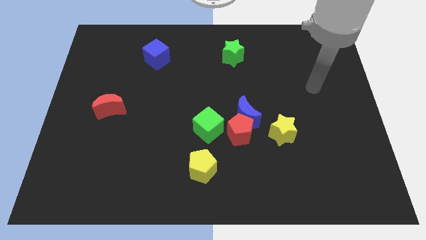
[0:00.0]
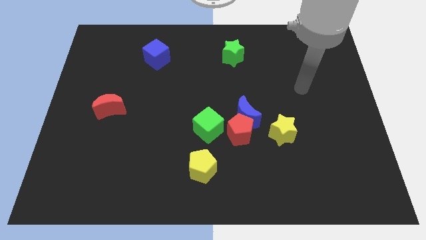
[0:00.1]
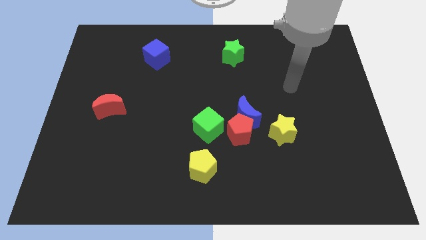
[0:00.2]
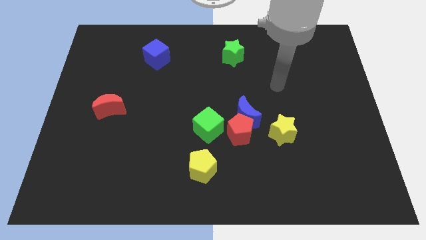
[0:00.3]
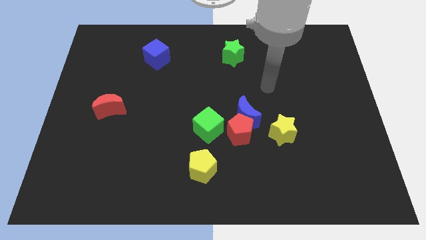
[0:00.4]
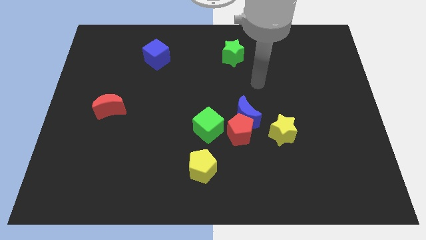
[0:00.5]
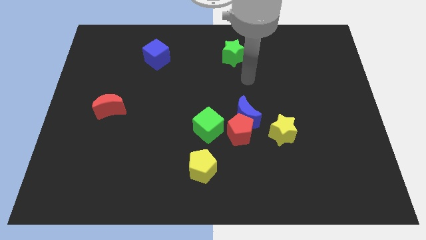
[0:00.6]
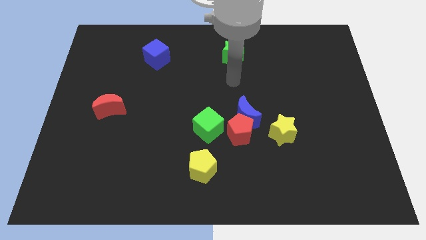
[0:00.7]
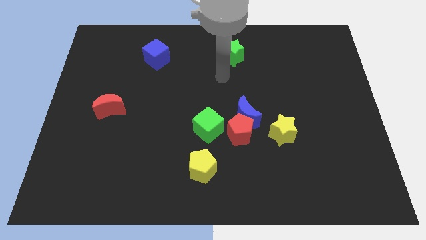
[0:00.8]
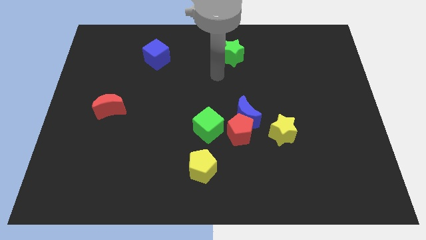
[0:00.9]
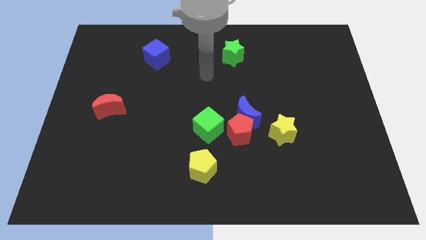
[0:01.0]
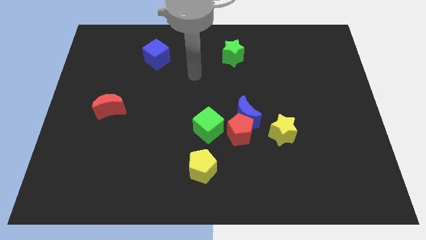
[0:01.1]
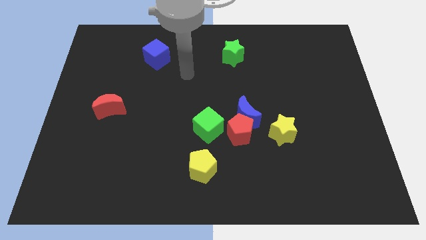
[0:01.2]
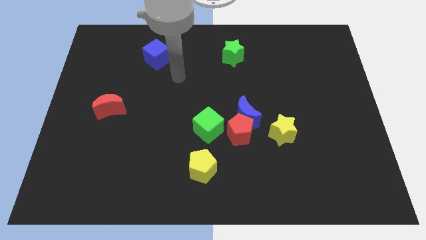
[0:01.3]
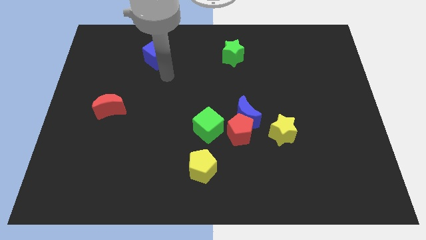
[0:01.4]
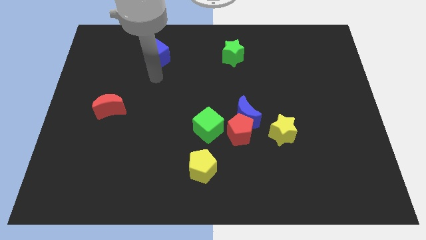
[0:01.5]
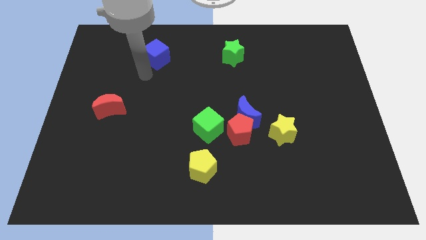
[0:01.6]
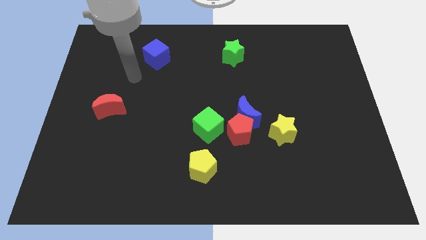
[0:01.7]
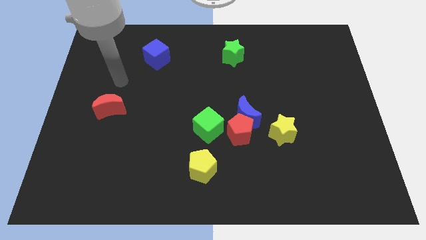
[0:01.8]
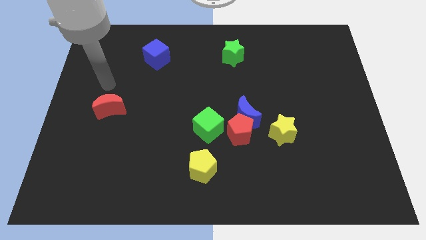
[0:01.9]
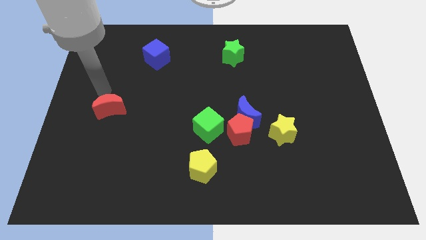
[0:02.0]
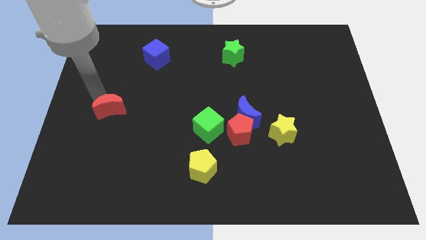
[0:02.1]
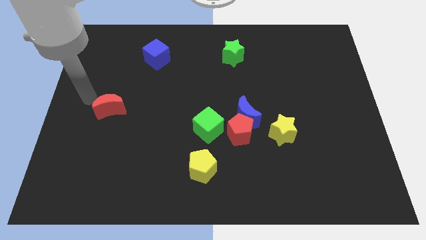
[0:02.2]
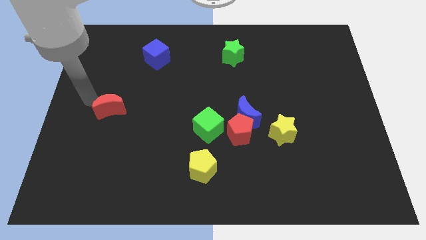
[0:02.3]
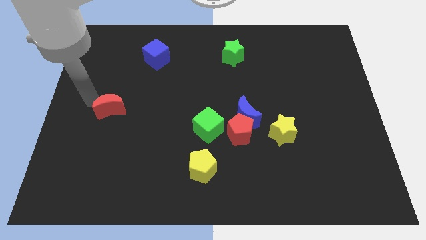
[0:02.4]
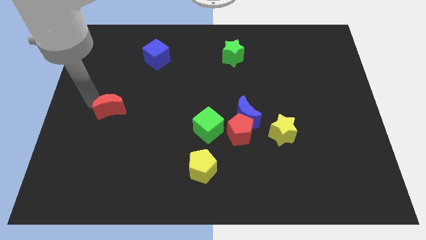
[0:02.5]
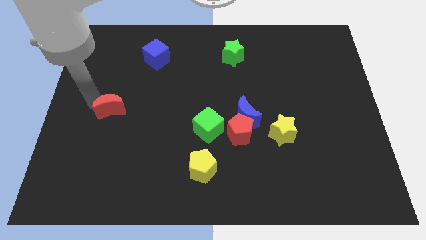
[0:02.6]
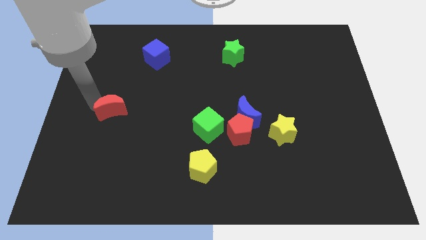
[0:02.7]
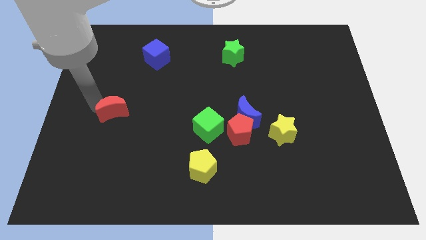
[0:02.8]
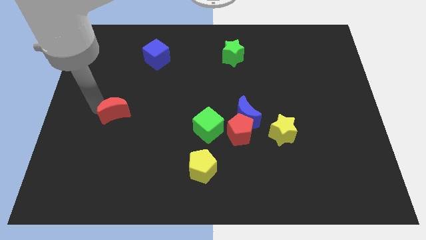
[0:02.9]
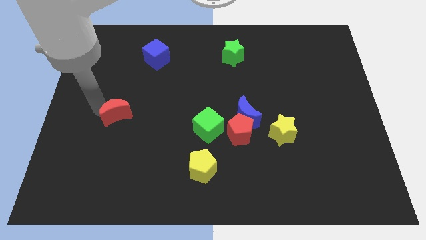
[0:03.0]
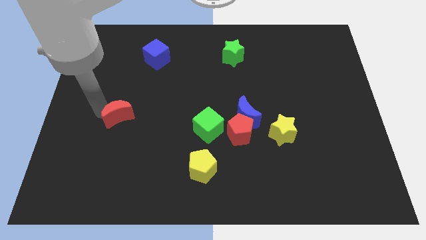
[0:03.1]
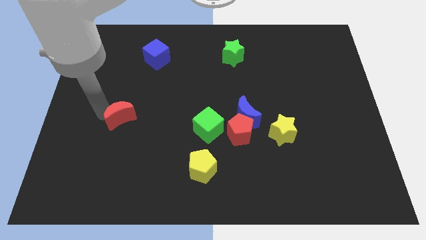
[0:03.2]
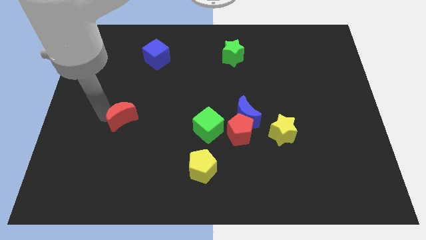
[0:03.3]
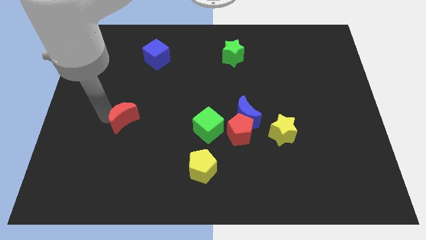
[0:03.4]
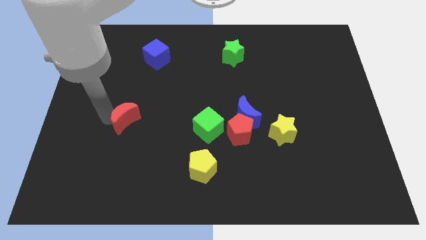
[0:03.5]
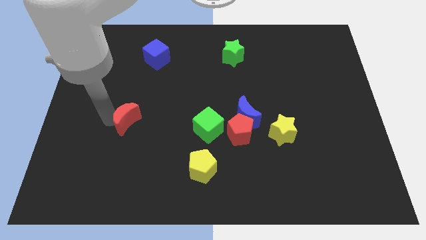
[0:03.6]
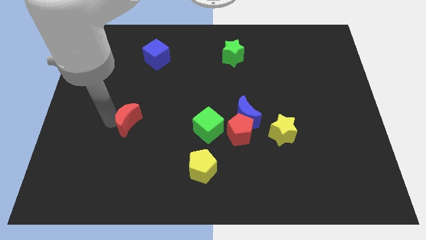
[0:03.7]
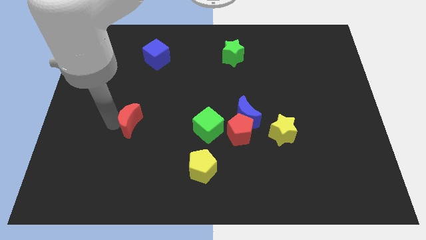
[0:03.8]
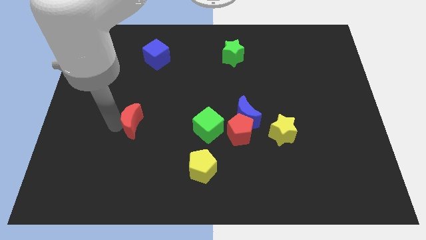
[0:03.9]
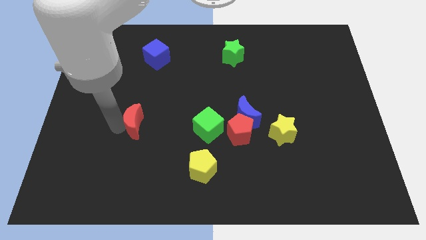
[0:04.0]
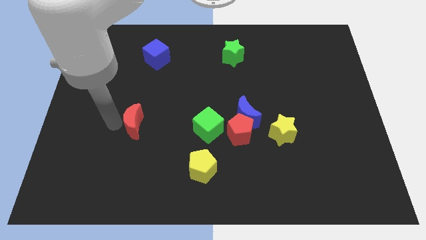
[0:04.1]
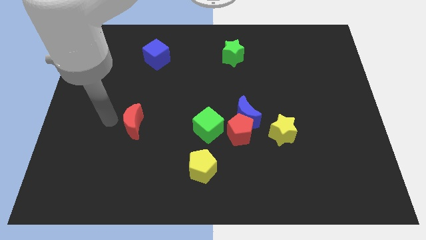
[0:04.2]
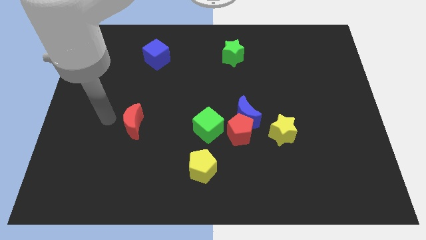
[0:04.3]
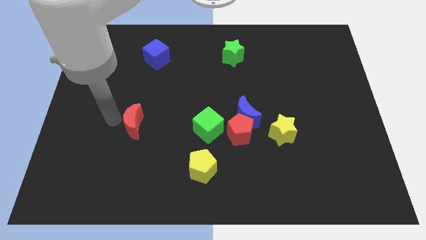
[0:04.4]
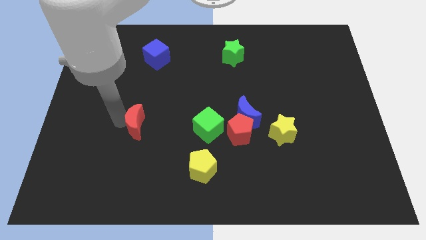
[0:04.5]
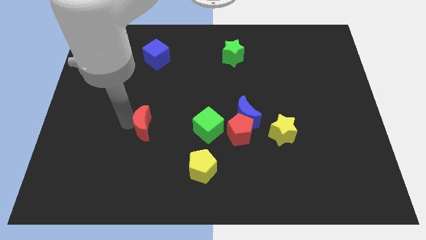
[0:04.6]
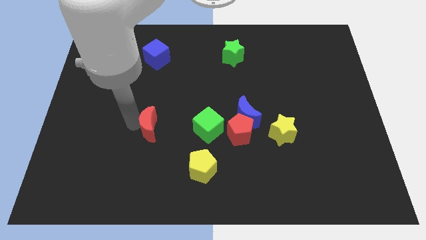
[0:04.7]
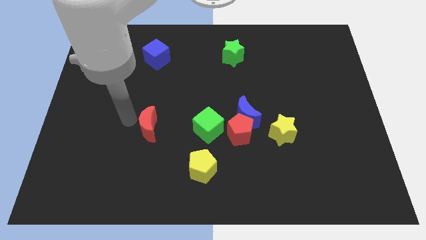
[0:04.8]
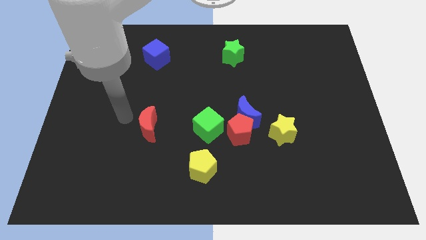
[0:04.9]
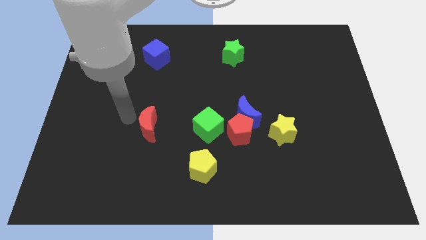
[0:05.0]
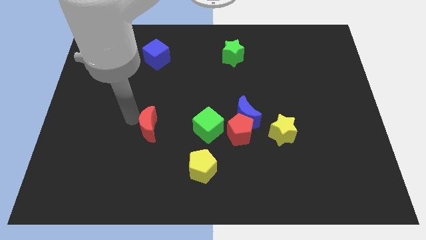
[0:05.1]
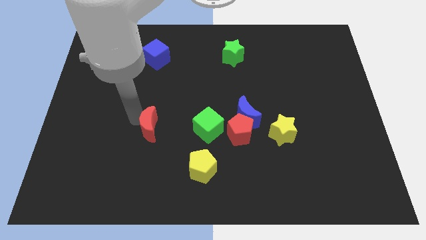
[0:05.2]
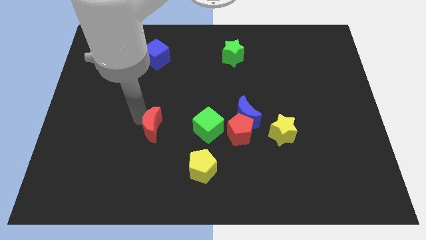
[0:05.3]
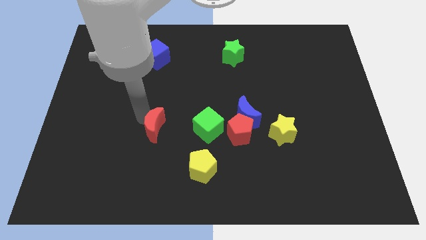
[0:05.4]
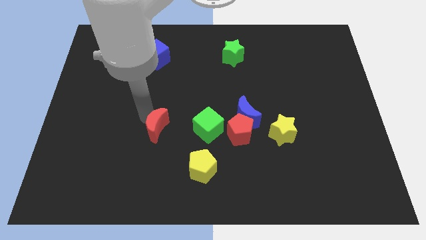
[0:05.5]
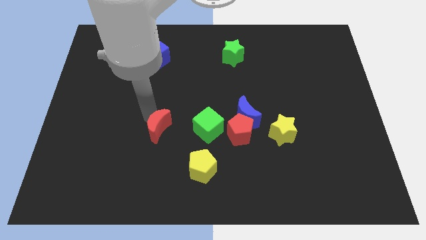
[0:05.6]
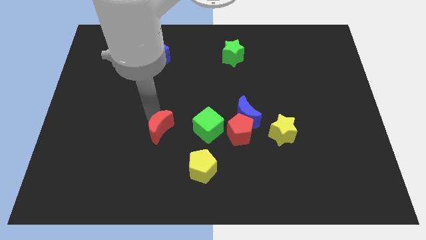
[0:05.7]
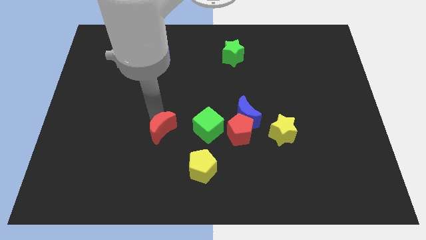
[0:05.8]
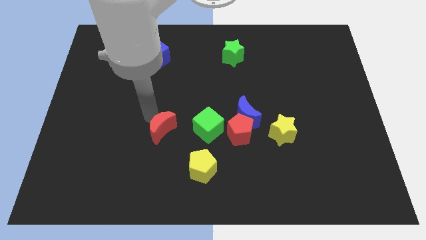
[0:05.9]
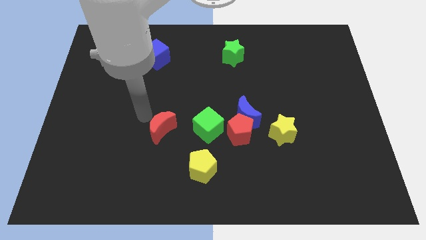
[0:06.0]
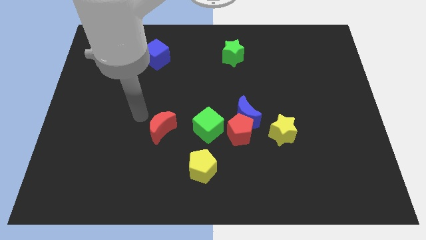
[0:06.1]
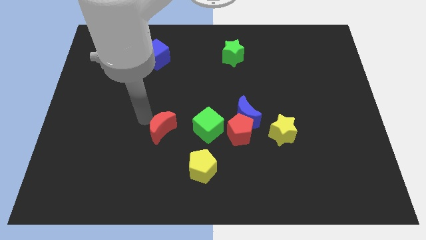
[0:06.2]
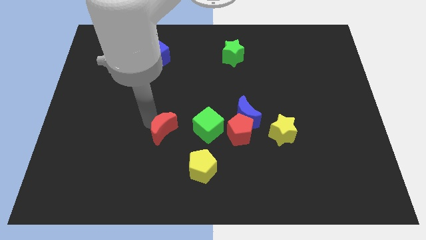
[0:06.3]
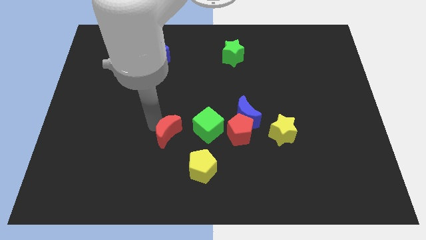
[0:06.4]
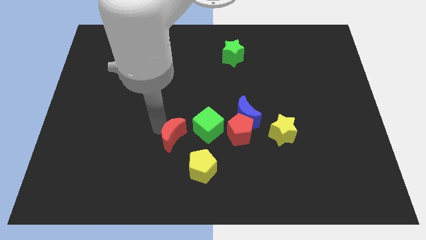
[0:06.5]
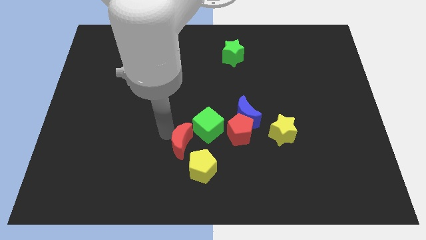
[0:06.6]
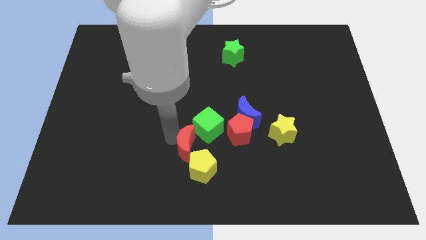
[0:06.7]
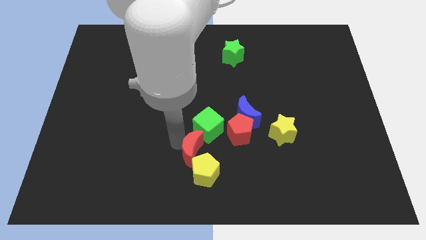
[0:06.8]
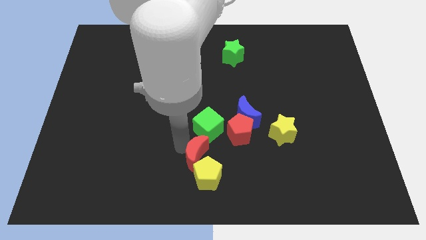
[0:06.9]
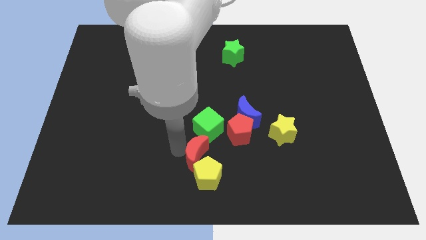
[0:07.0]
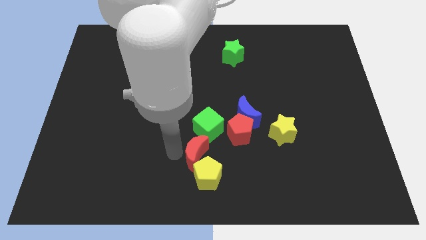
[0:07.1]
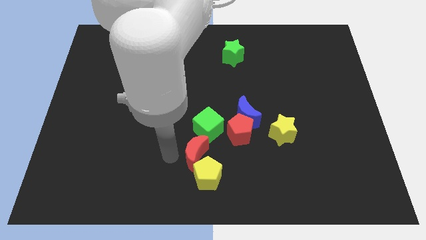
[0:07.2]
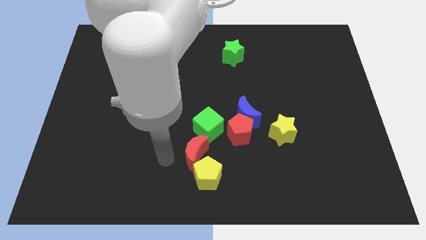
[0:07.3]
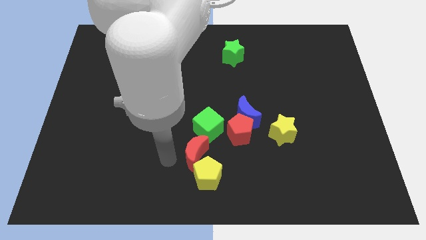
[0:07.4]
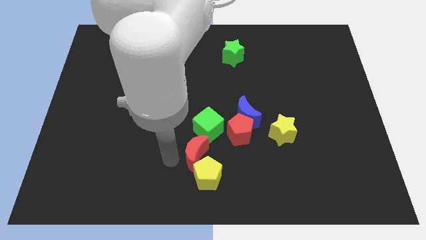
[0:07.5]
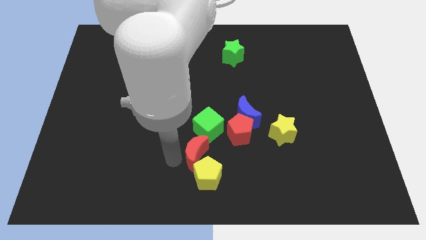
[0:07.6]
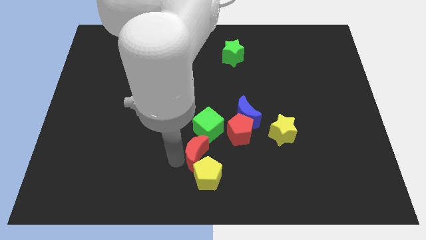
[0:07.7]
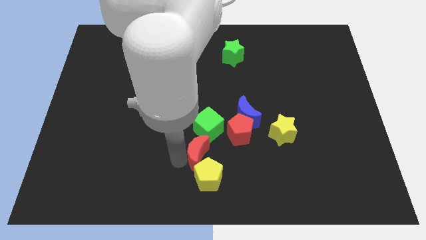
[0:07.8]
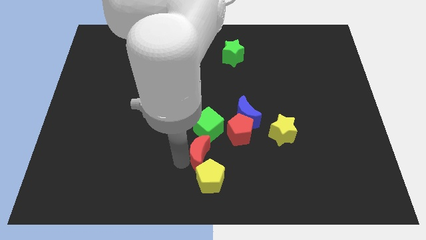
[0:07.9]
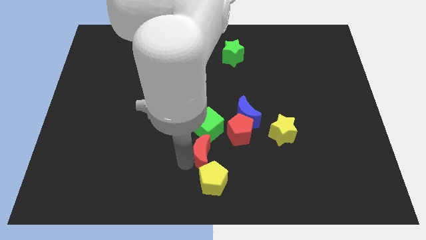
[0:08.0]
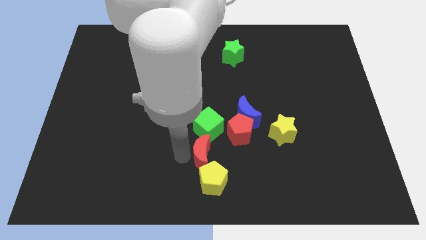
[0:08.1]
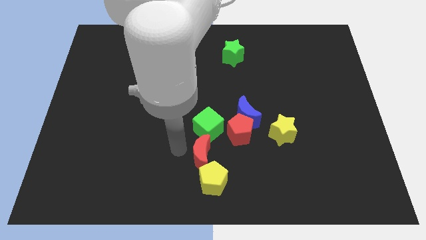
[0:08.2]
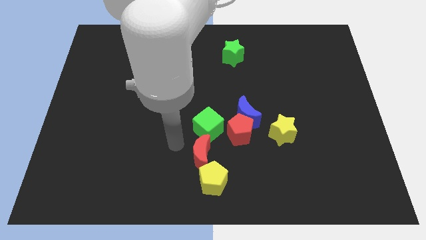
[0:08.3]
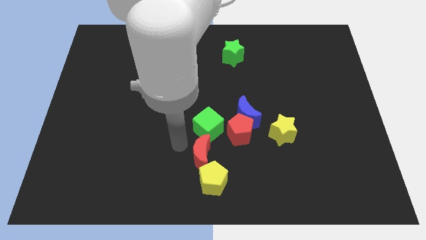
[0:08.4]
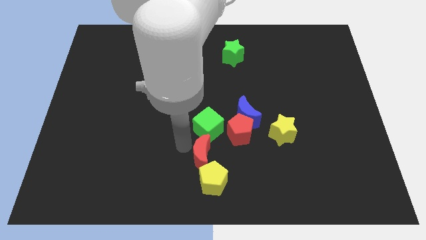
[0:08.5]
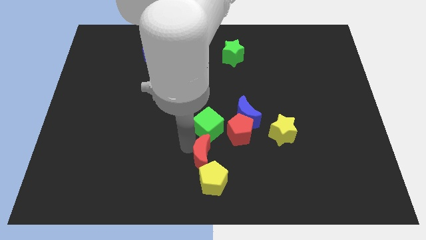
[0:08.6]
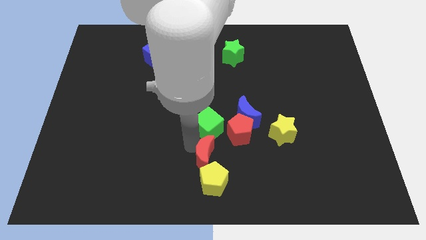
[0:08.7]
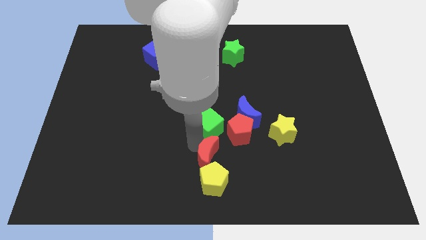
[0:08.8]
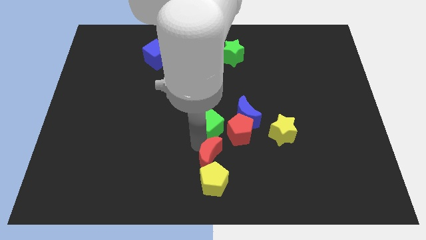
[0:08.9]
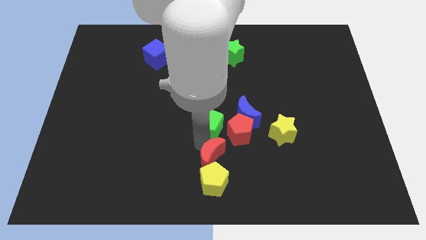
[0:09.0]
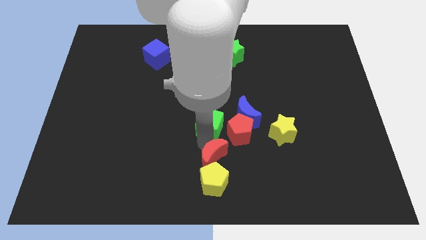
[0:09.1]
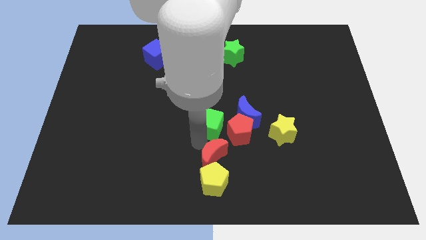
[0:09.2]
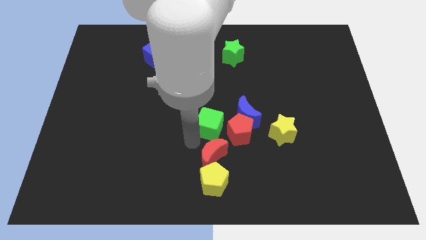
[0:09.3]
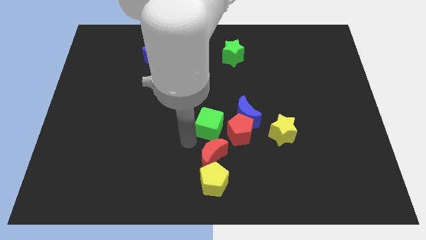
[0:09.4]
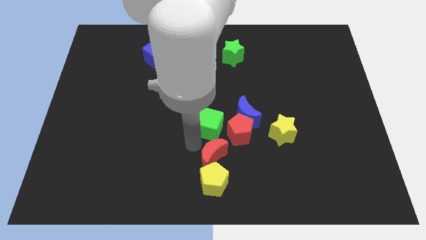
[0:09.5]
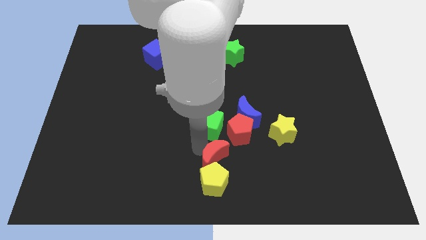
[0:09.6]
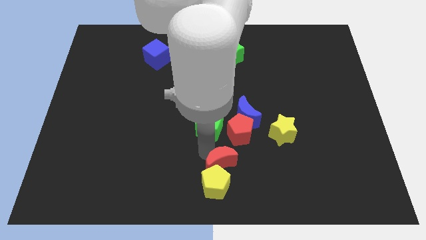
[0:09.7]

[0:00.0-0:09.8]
slide the red moon to the bottom side of the red pentagon
